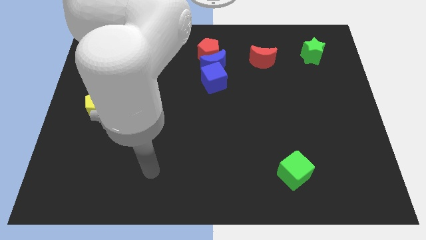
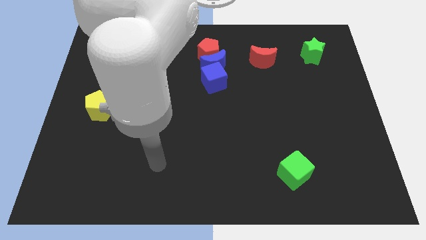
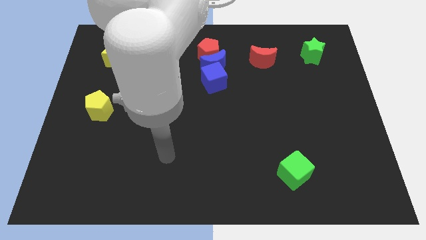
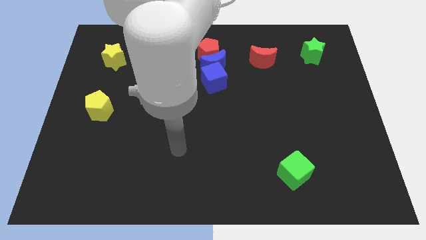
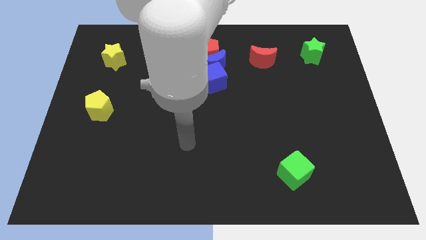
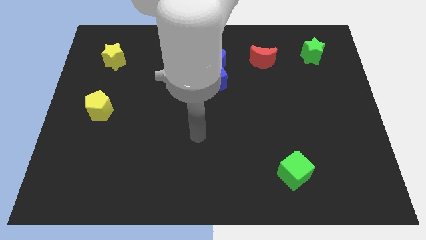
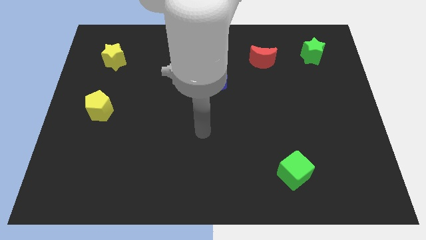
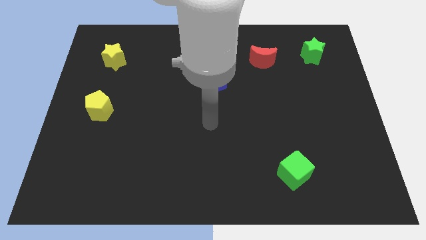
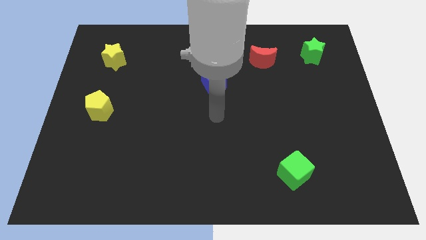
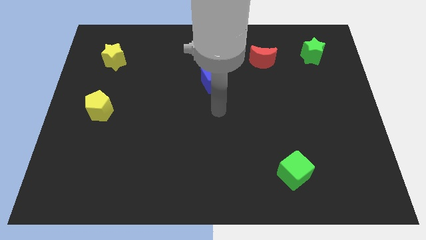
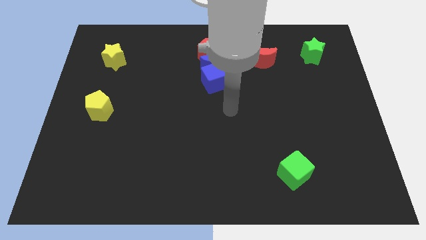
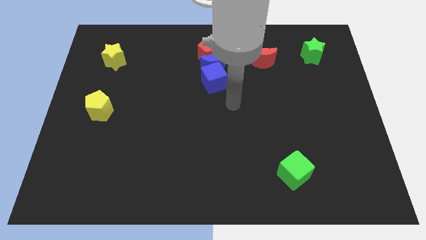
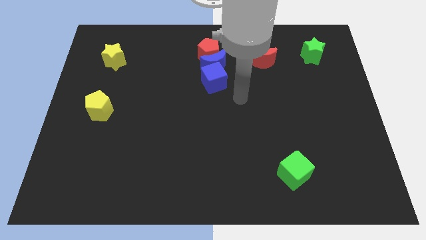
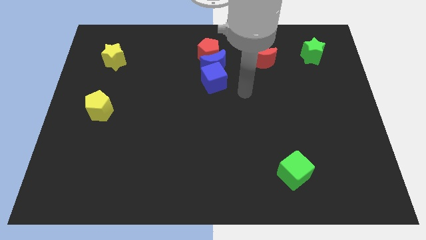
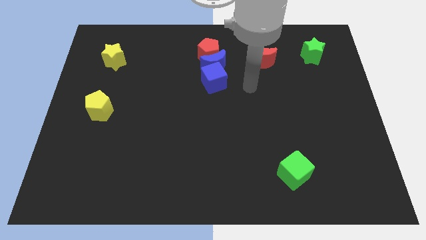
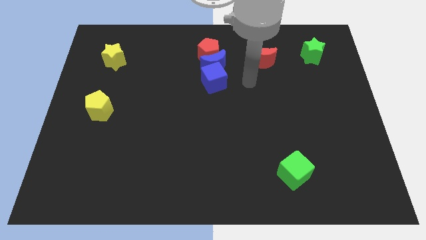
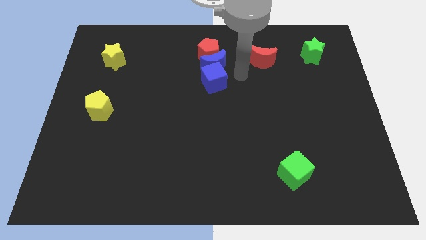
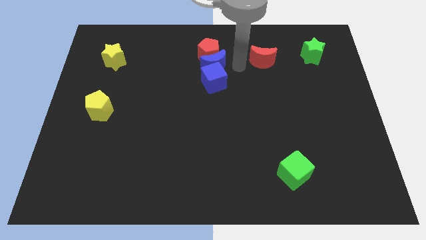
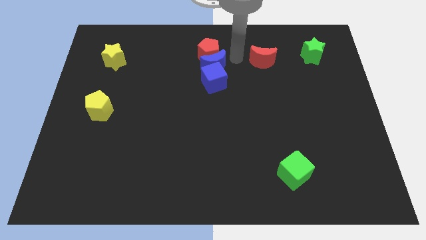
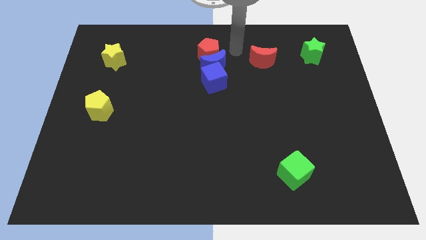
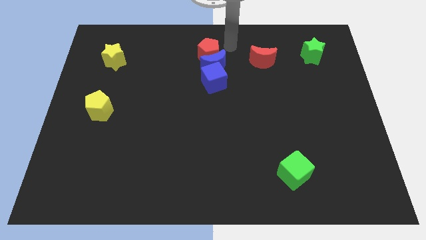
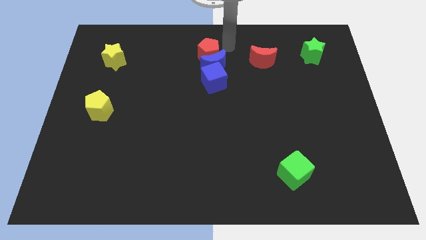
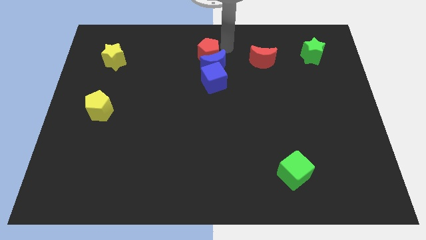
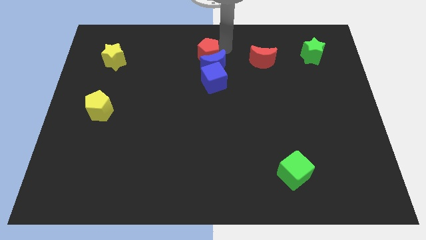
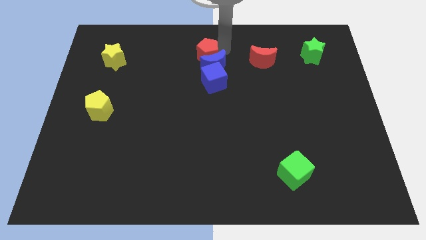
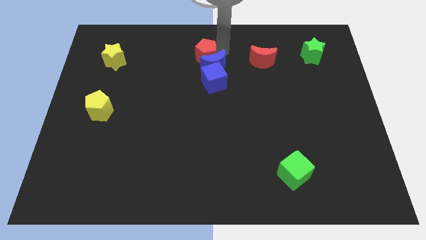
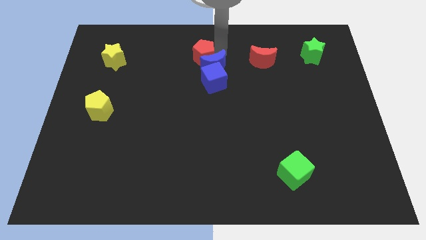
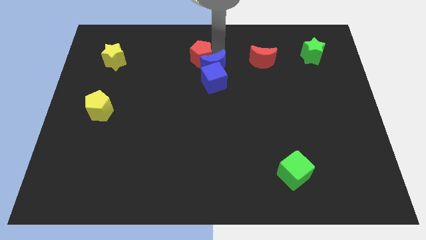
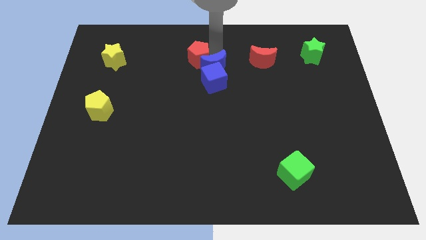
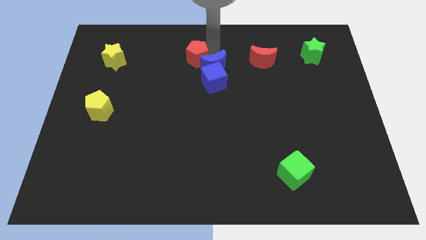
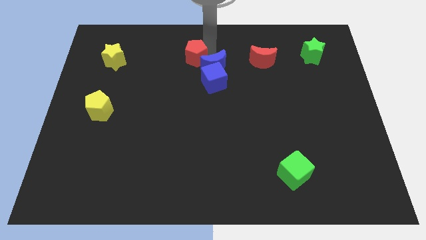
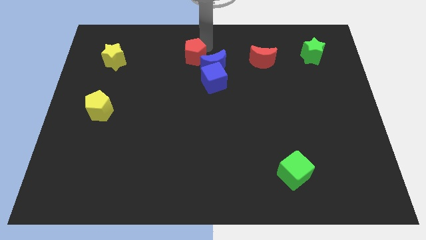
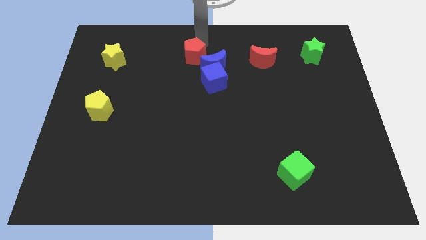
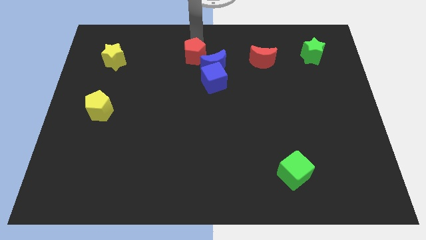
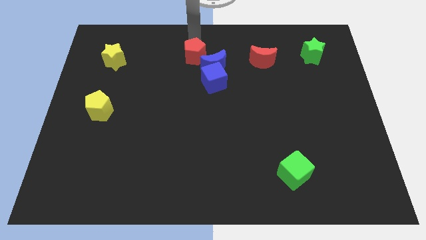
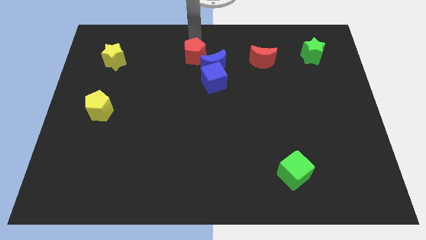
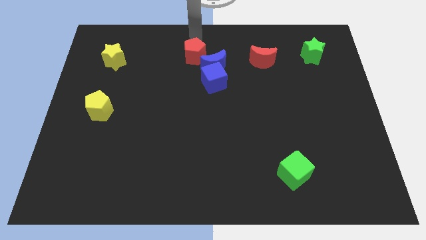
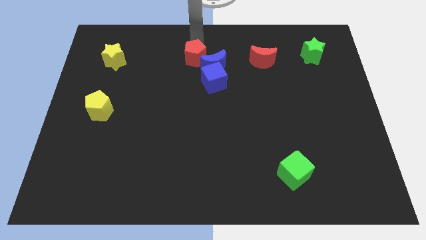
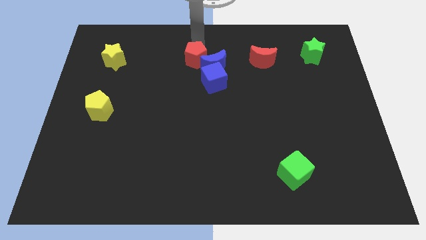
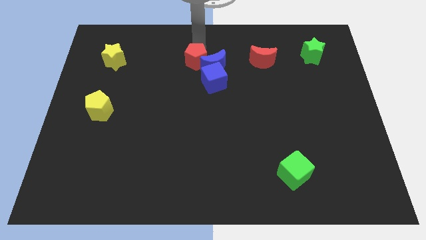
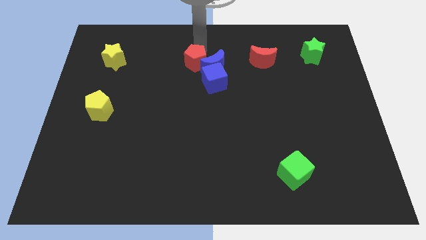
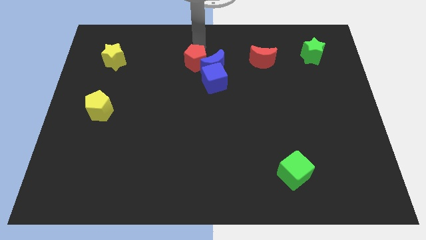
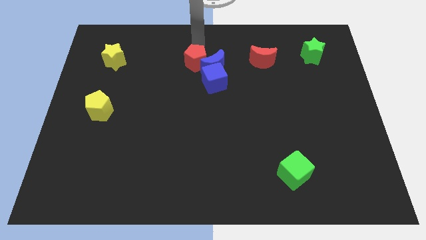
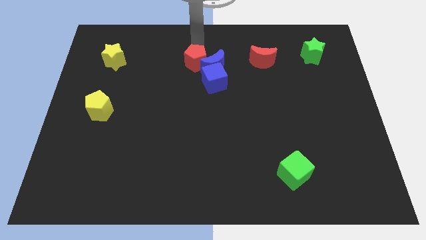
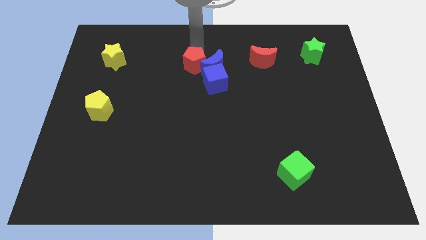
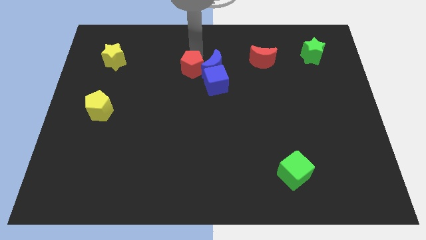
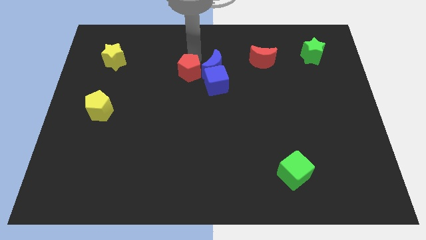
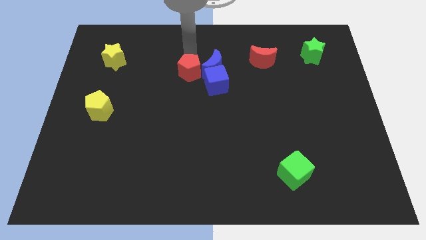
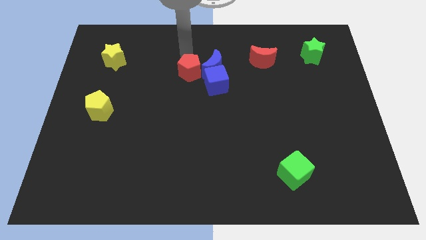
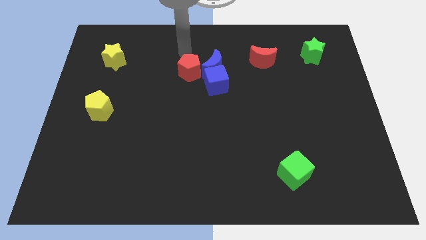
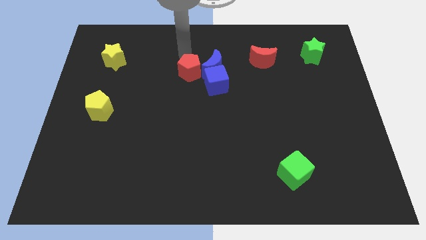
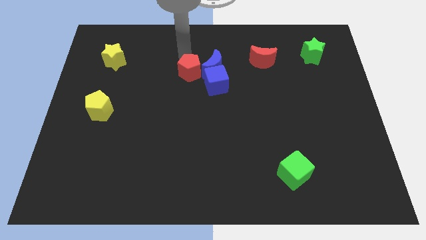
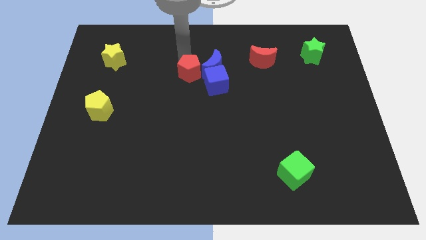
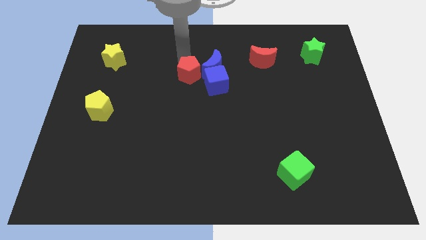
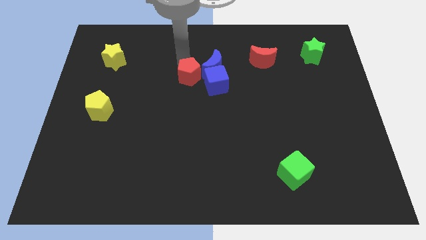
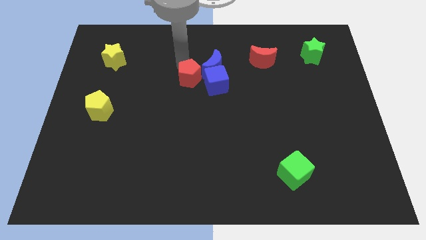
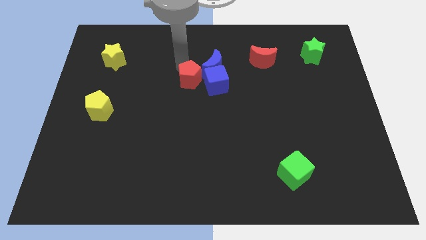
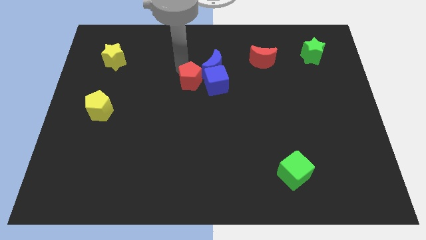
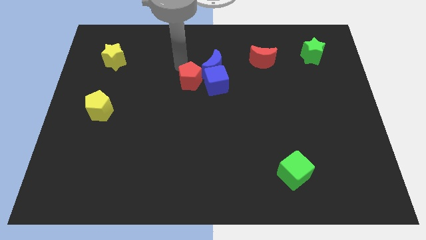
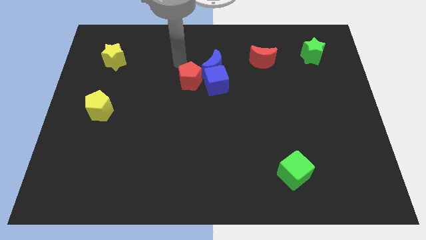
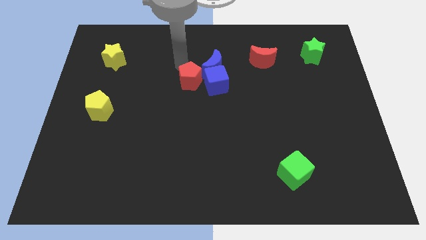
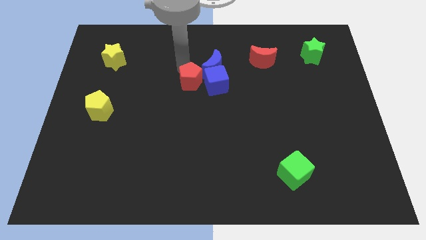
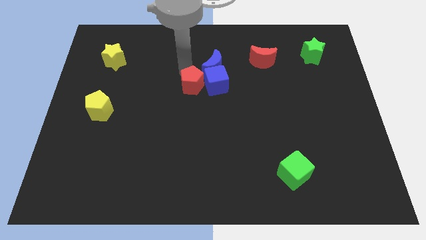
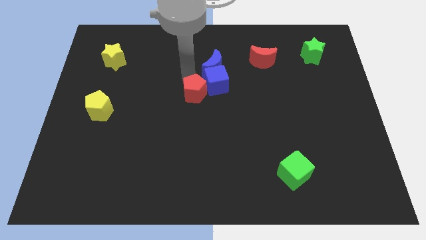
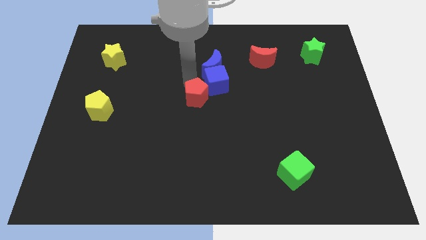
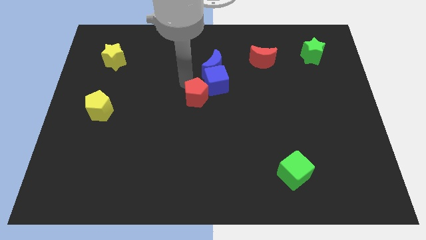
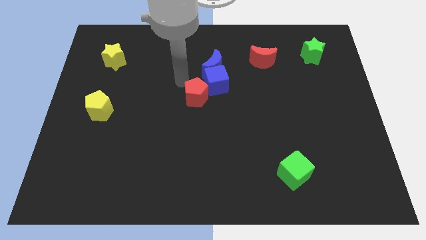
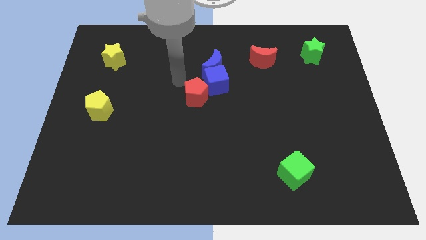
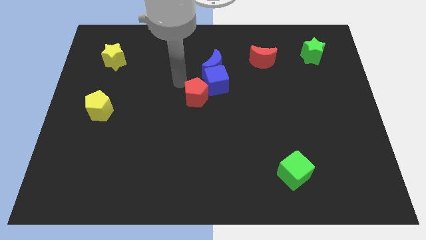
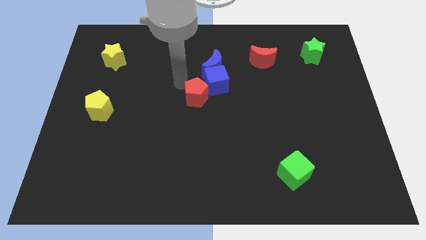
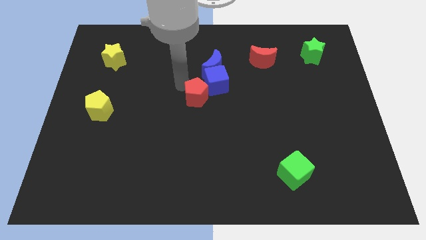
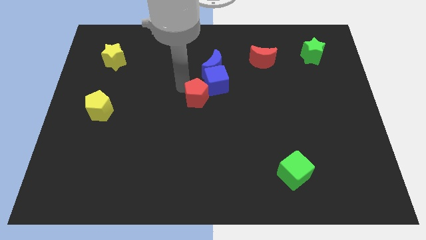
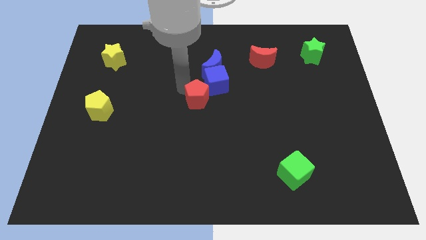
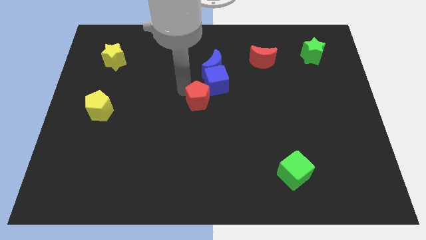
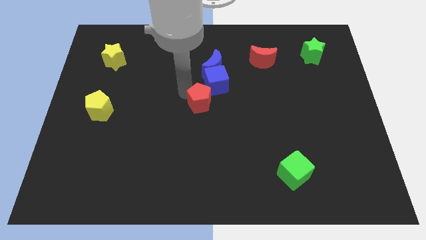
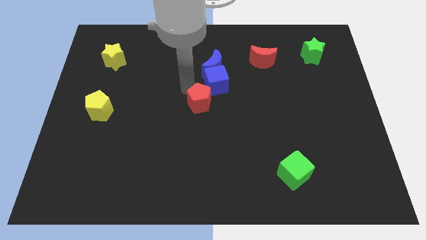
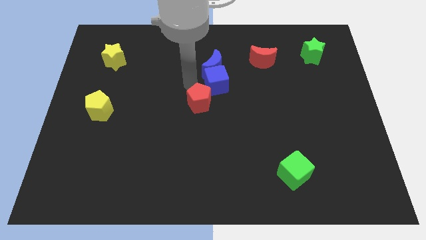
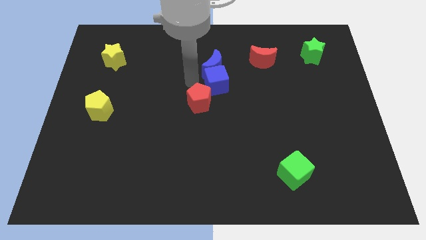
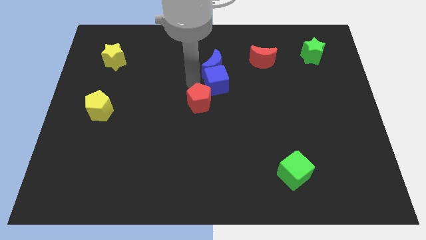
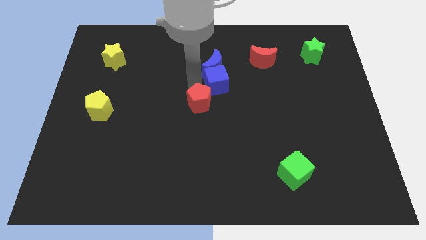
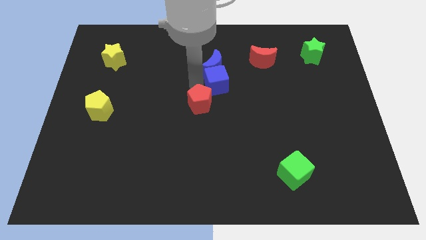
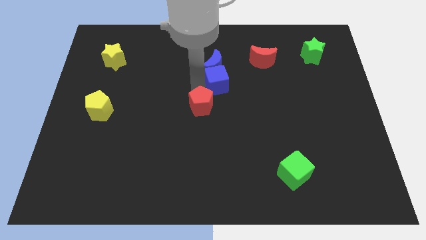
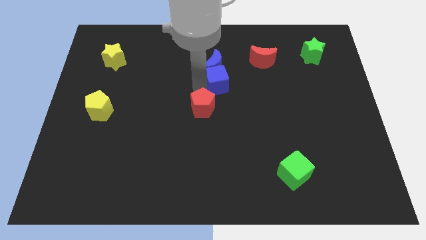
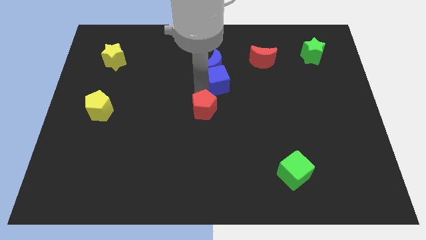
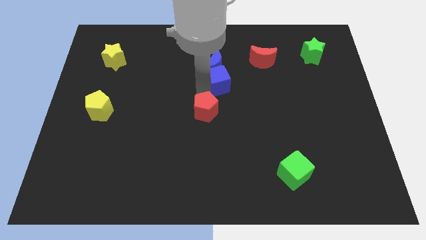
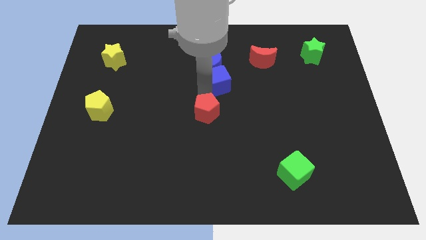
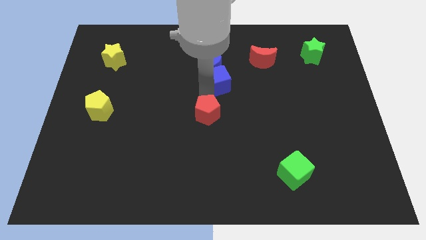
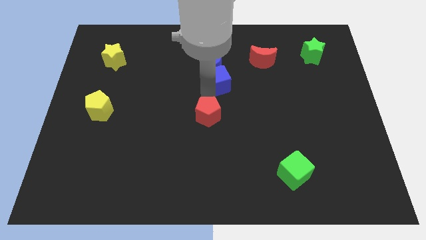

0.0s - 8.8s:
push the red pentagon downwards
